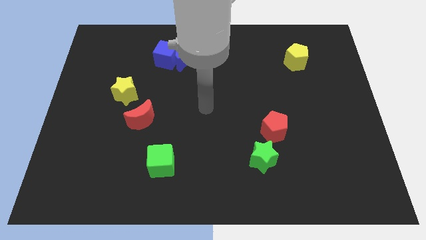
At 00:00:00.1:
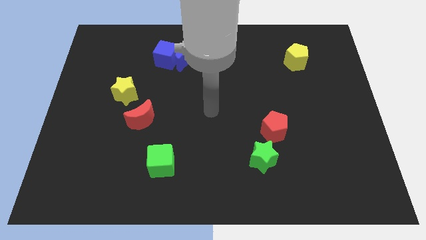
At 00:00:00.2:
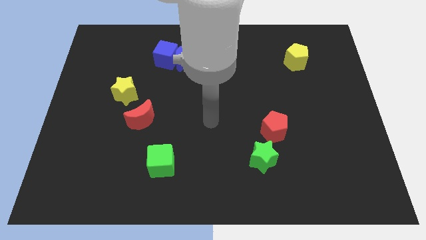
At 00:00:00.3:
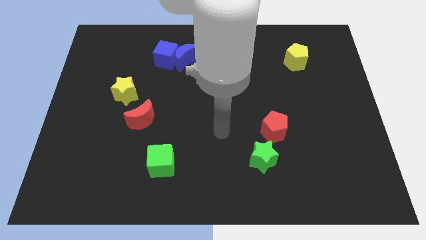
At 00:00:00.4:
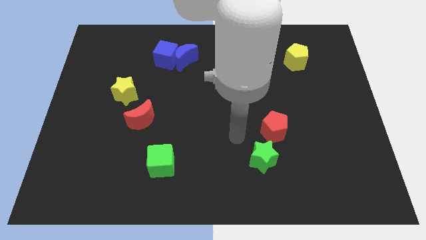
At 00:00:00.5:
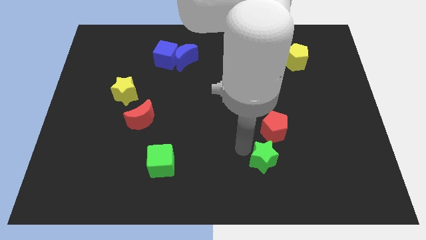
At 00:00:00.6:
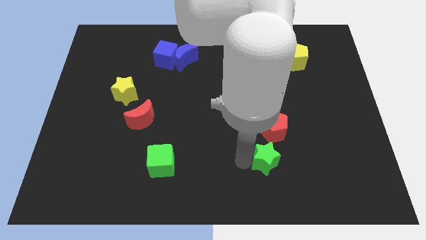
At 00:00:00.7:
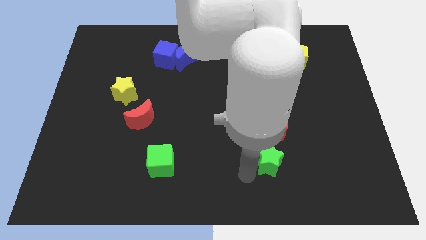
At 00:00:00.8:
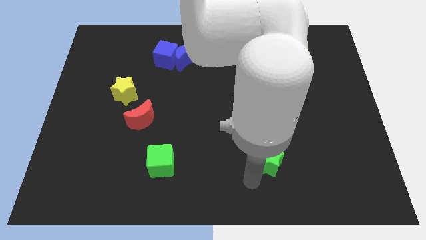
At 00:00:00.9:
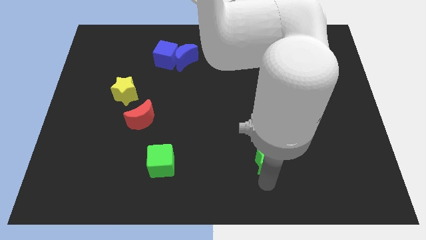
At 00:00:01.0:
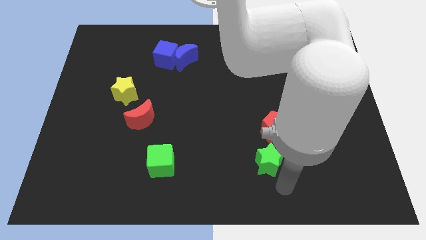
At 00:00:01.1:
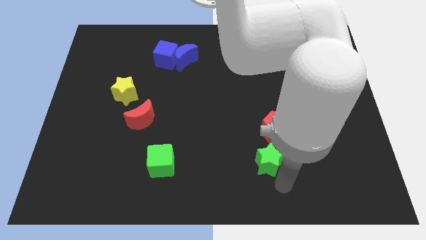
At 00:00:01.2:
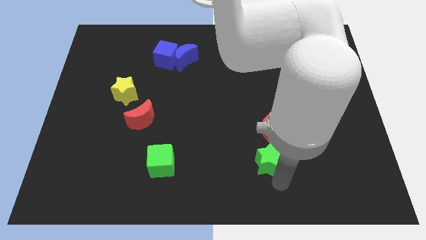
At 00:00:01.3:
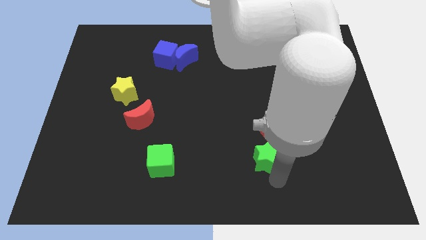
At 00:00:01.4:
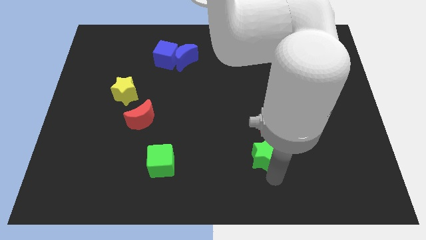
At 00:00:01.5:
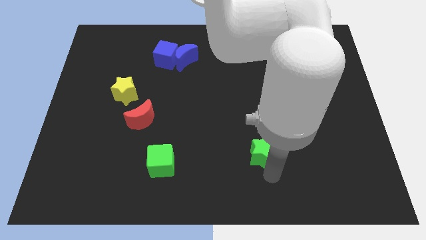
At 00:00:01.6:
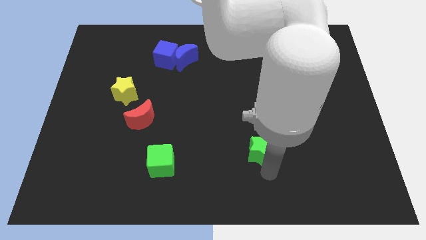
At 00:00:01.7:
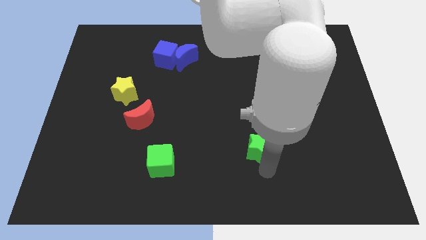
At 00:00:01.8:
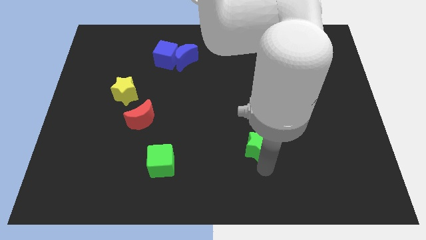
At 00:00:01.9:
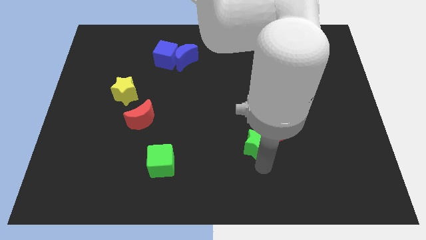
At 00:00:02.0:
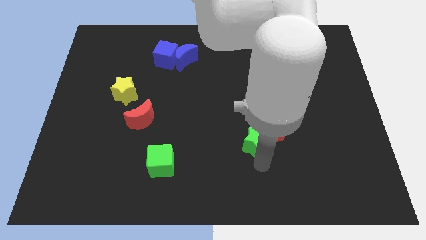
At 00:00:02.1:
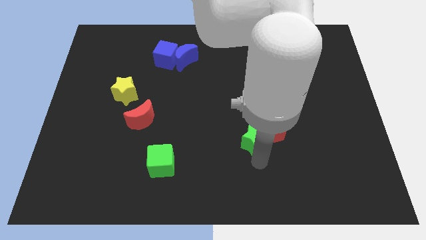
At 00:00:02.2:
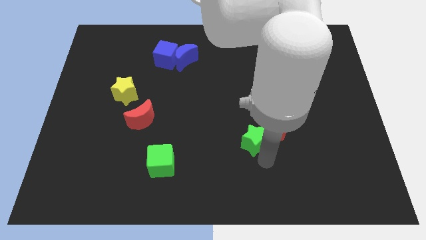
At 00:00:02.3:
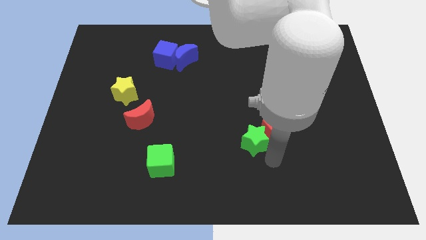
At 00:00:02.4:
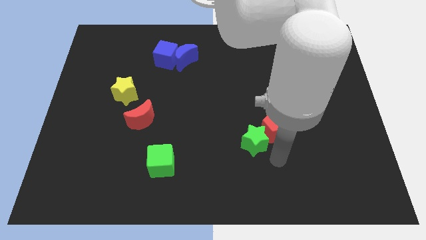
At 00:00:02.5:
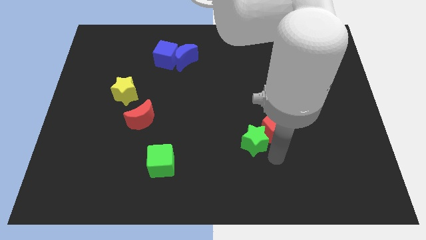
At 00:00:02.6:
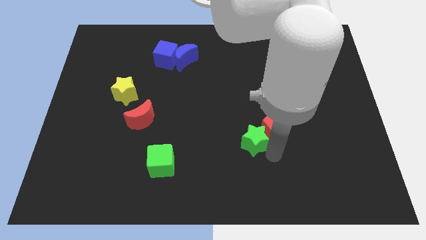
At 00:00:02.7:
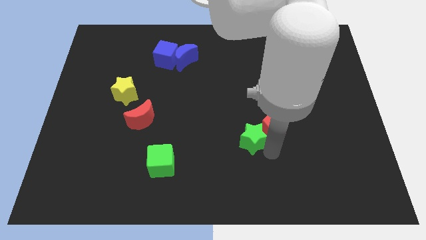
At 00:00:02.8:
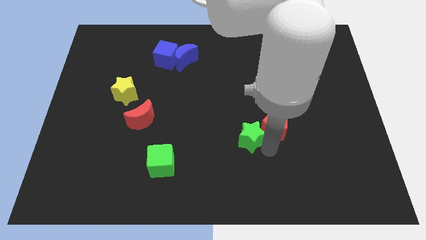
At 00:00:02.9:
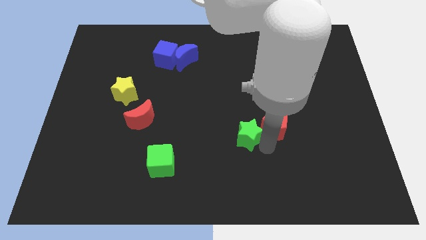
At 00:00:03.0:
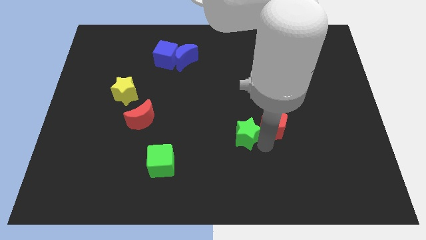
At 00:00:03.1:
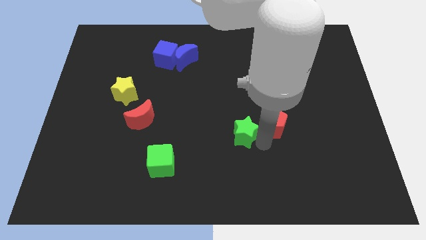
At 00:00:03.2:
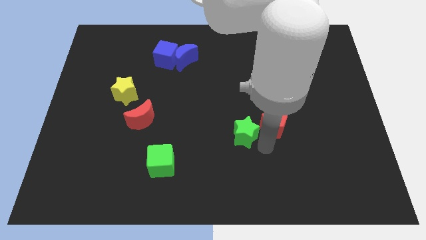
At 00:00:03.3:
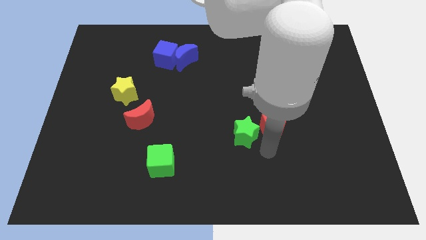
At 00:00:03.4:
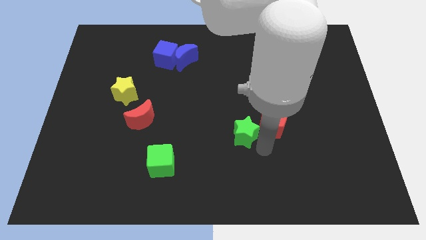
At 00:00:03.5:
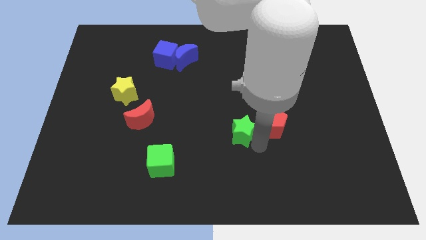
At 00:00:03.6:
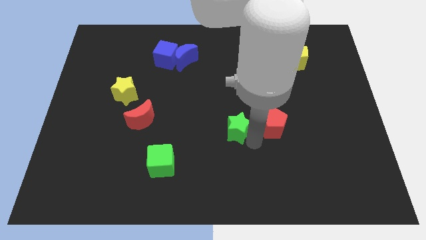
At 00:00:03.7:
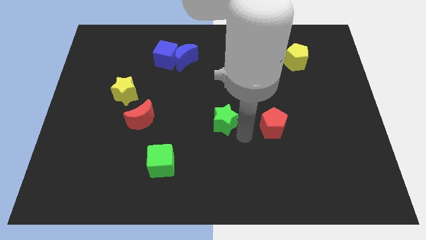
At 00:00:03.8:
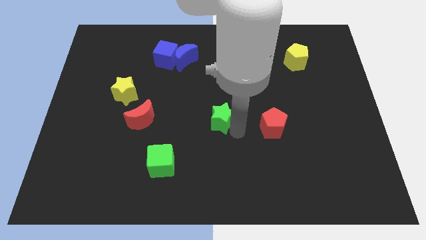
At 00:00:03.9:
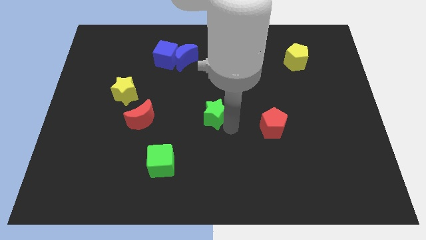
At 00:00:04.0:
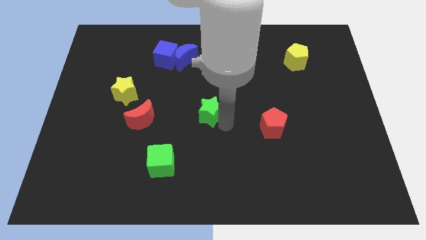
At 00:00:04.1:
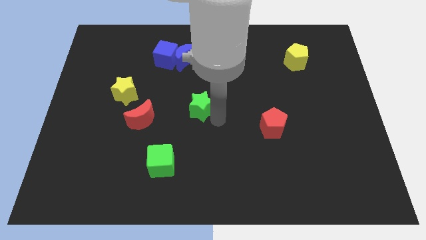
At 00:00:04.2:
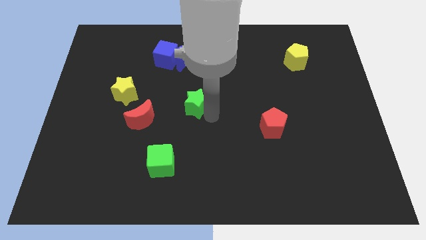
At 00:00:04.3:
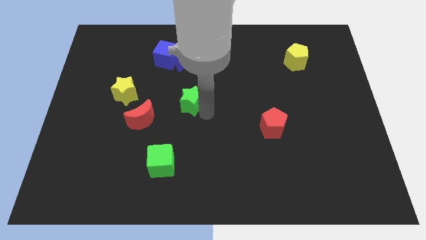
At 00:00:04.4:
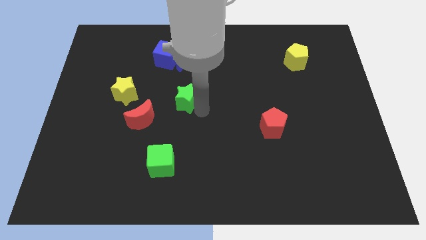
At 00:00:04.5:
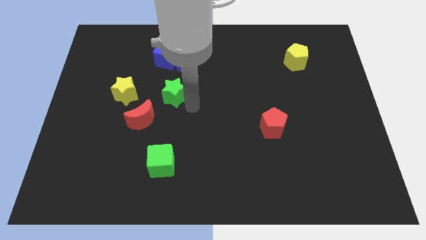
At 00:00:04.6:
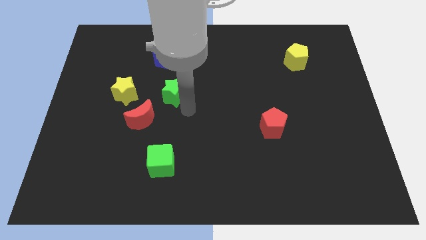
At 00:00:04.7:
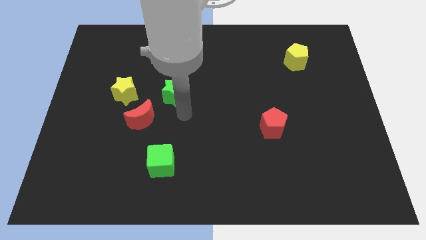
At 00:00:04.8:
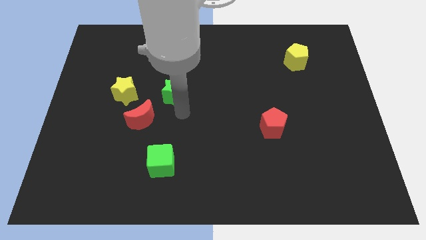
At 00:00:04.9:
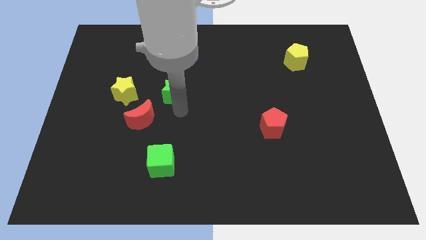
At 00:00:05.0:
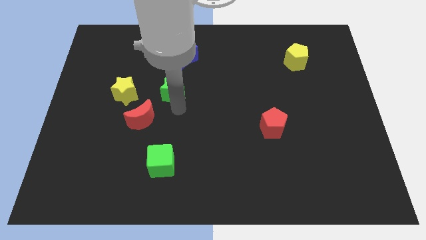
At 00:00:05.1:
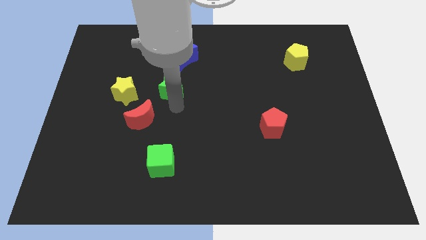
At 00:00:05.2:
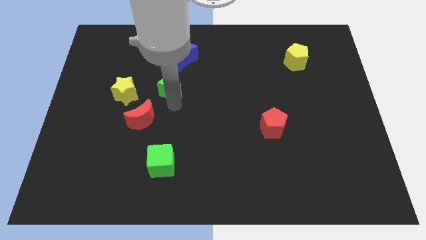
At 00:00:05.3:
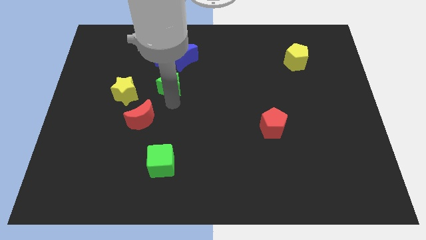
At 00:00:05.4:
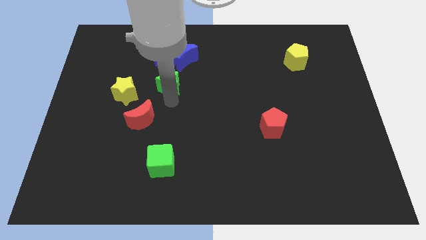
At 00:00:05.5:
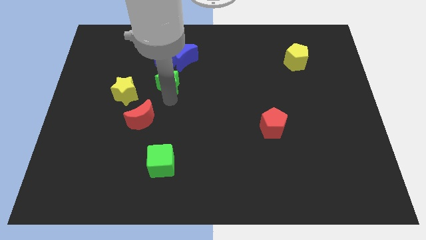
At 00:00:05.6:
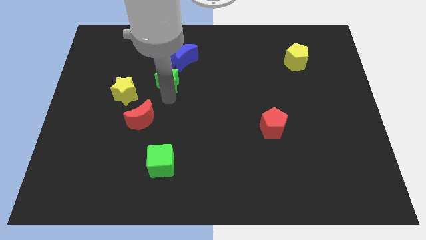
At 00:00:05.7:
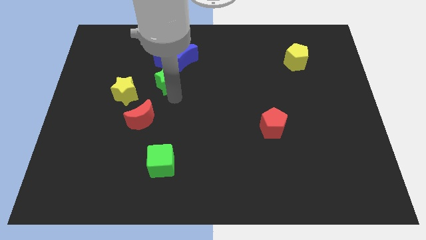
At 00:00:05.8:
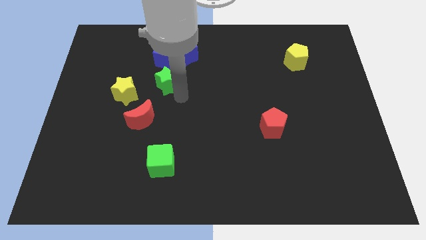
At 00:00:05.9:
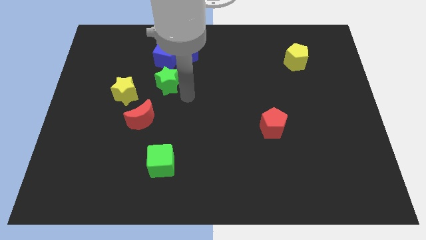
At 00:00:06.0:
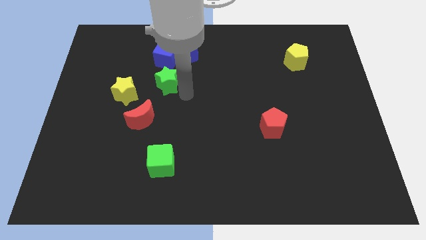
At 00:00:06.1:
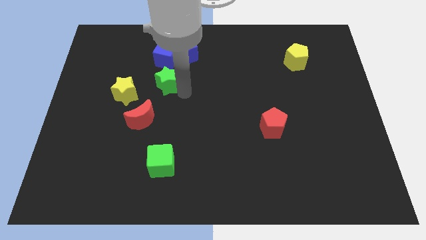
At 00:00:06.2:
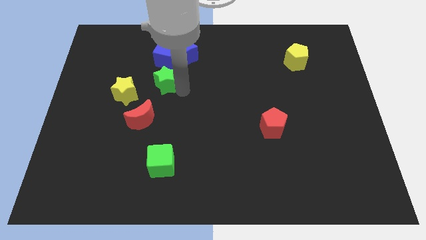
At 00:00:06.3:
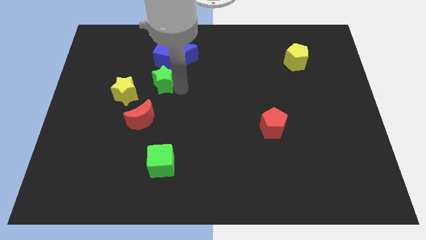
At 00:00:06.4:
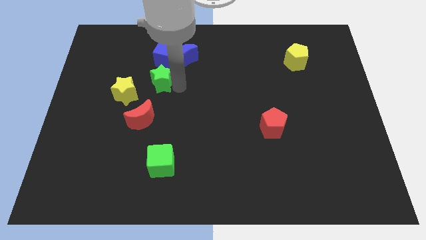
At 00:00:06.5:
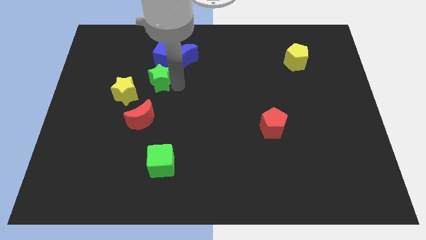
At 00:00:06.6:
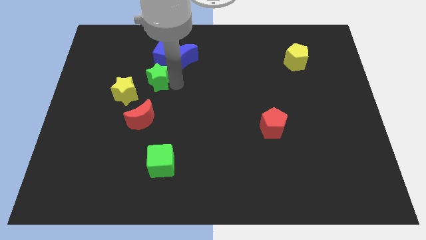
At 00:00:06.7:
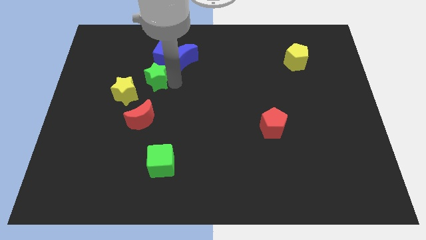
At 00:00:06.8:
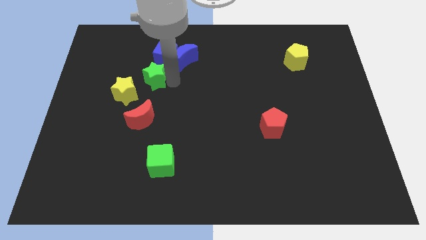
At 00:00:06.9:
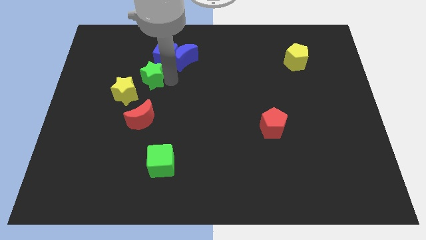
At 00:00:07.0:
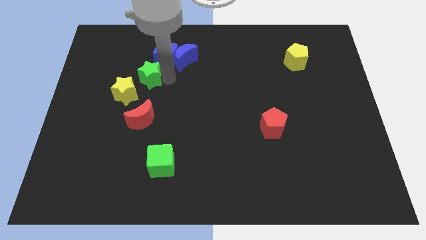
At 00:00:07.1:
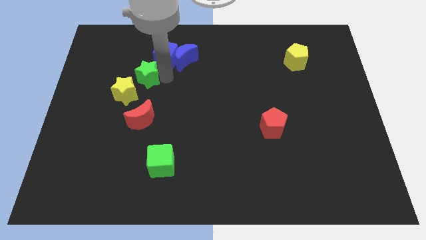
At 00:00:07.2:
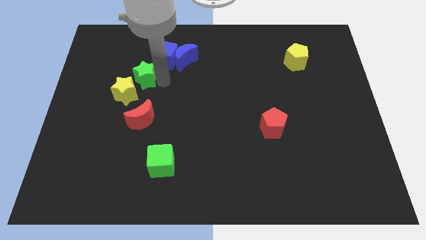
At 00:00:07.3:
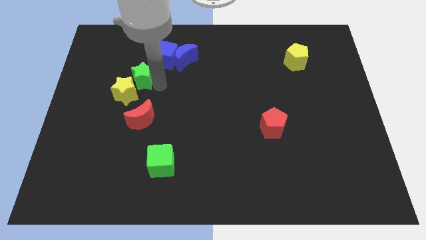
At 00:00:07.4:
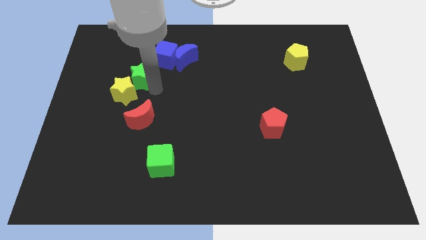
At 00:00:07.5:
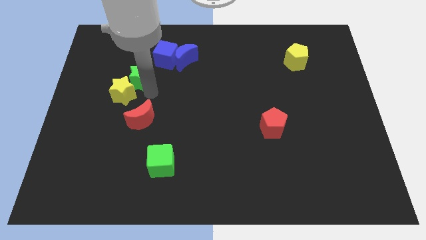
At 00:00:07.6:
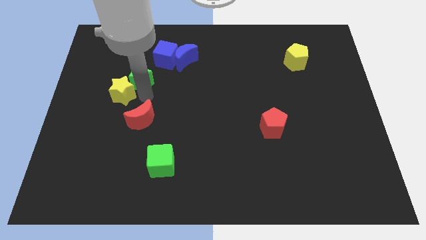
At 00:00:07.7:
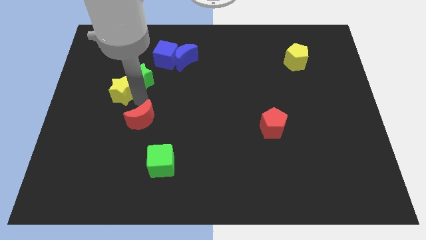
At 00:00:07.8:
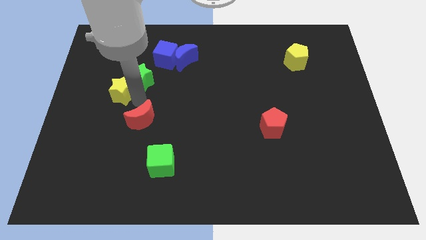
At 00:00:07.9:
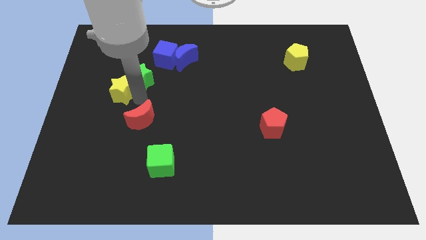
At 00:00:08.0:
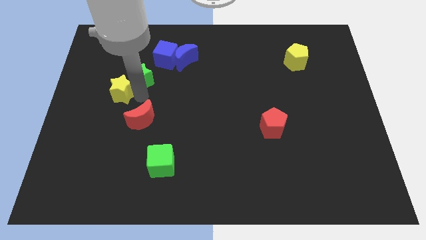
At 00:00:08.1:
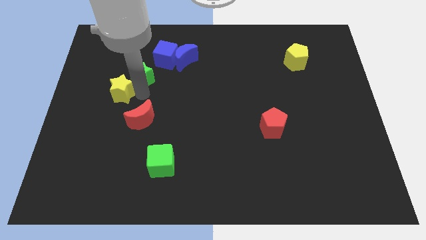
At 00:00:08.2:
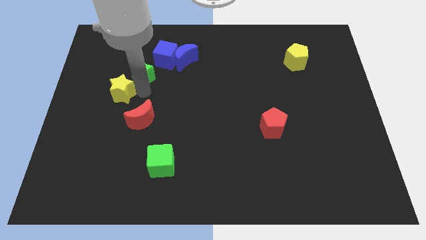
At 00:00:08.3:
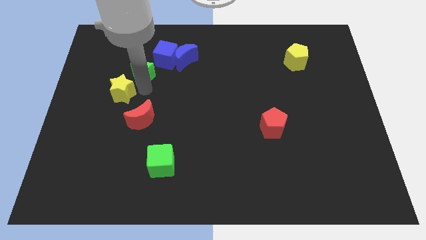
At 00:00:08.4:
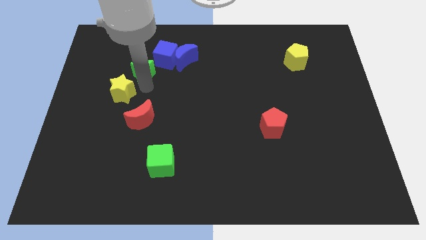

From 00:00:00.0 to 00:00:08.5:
push the green star left of the blue moon
